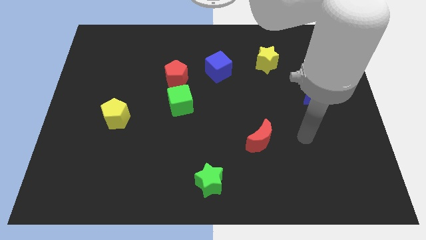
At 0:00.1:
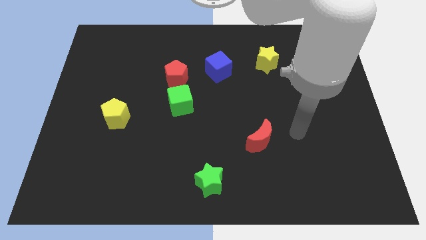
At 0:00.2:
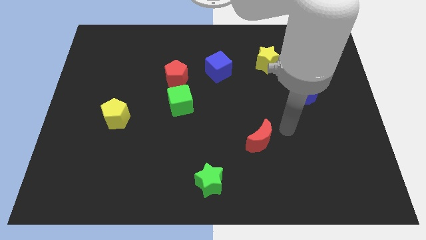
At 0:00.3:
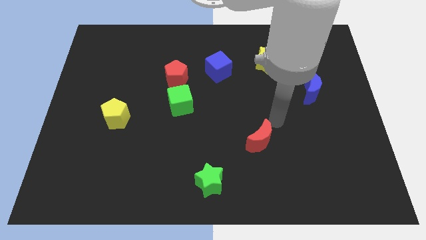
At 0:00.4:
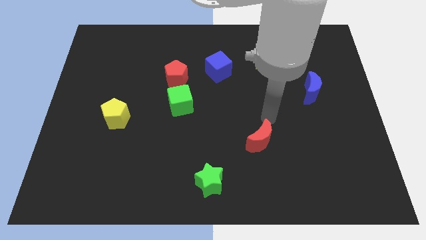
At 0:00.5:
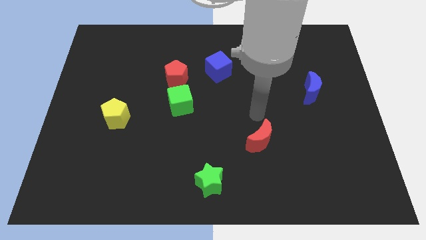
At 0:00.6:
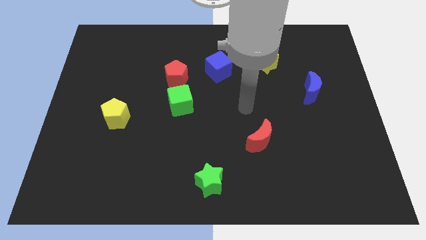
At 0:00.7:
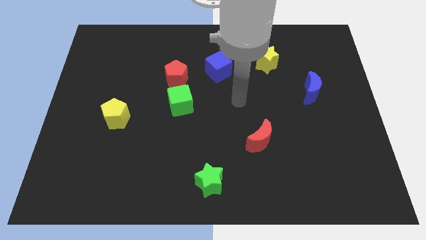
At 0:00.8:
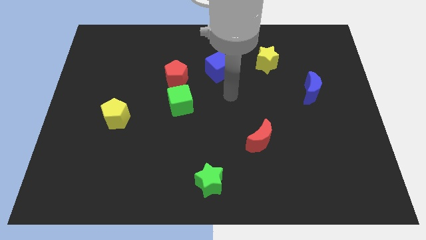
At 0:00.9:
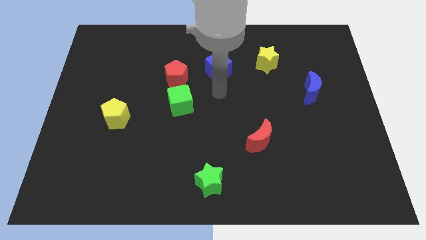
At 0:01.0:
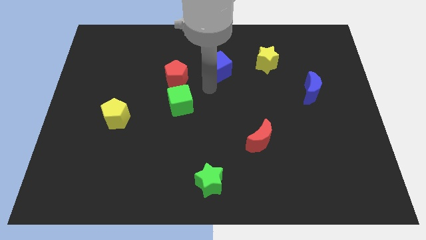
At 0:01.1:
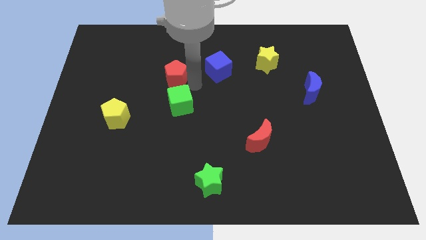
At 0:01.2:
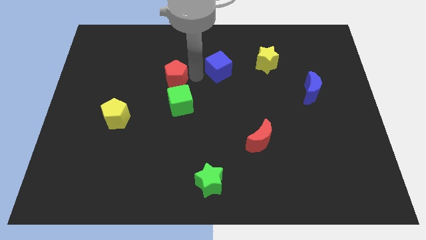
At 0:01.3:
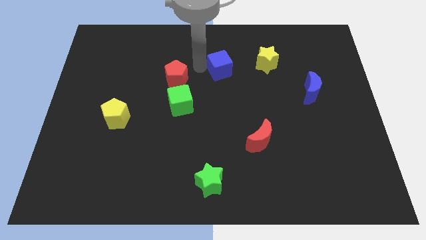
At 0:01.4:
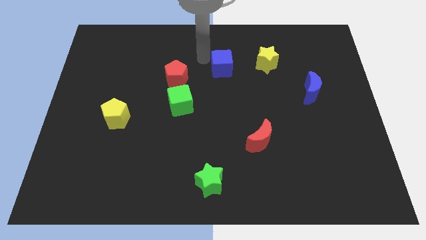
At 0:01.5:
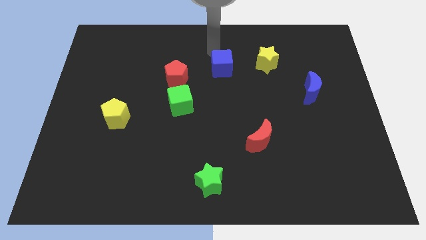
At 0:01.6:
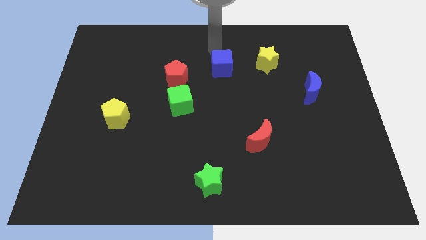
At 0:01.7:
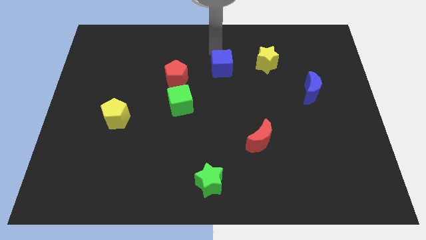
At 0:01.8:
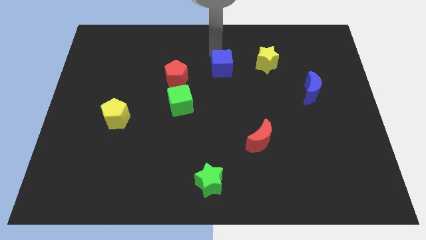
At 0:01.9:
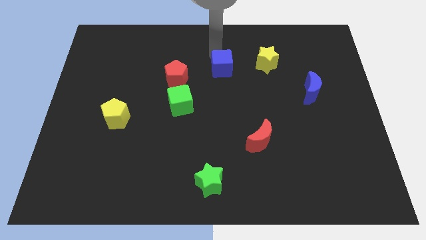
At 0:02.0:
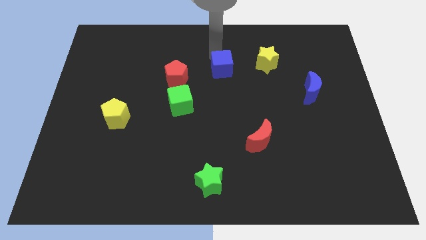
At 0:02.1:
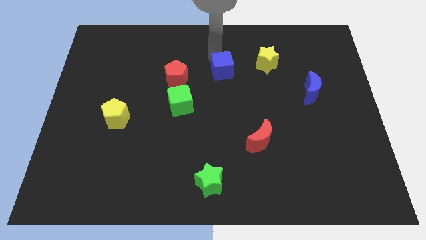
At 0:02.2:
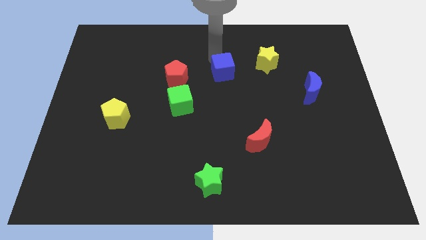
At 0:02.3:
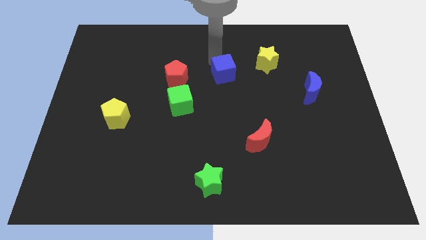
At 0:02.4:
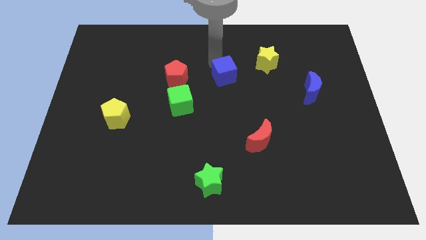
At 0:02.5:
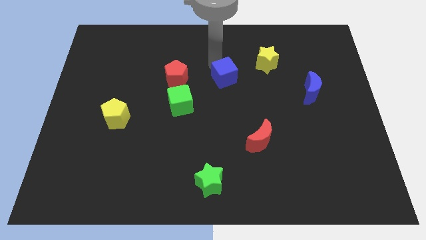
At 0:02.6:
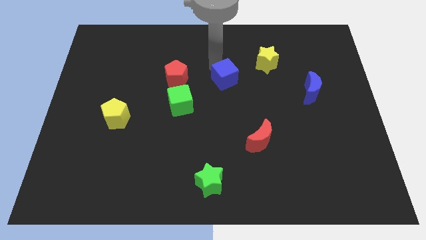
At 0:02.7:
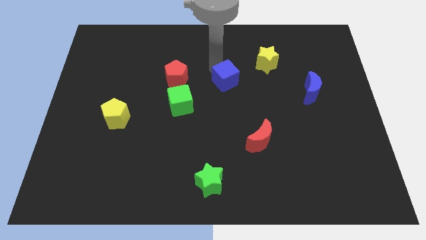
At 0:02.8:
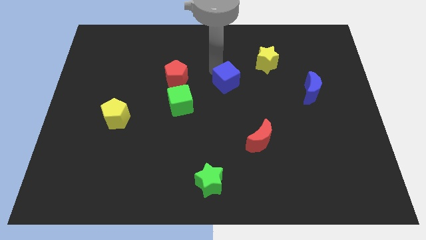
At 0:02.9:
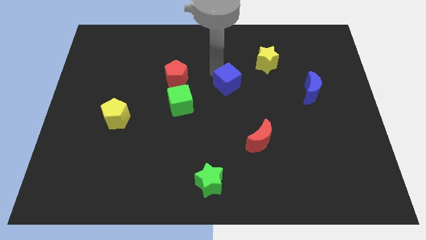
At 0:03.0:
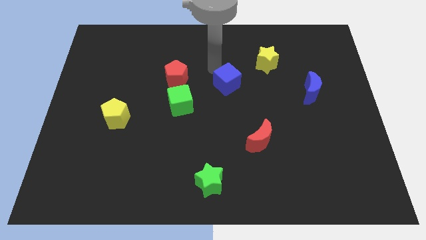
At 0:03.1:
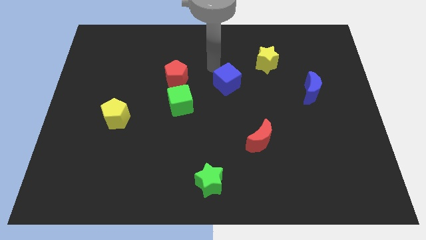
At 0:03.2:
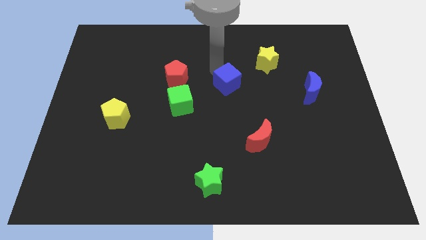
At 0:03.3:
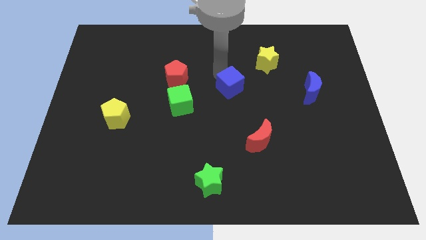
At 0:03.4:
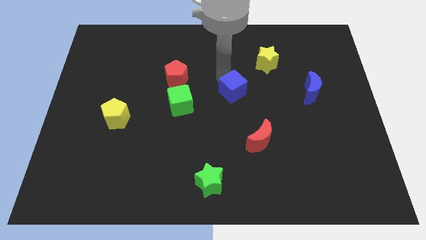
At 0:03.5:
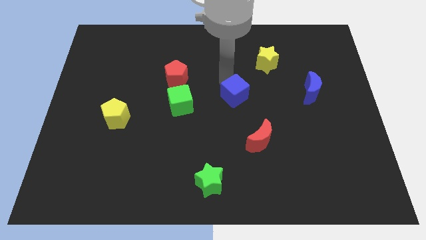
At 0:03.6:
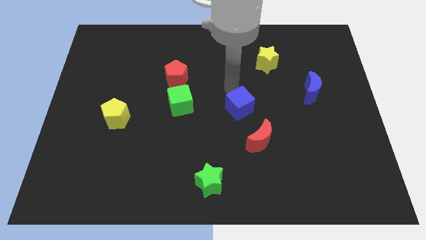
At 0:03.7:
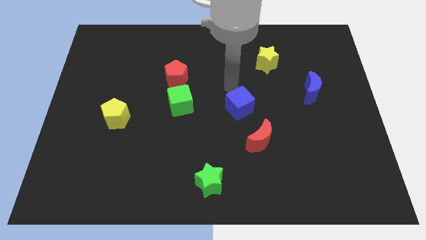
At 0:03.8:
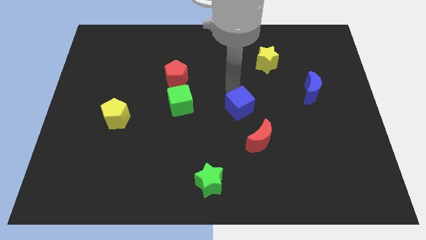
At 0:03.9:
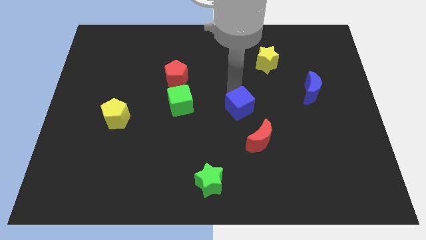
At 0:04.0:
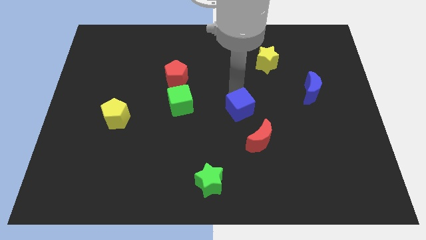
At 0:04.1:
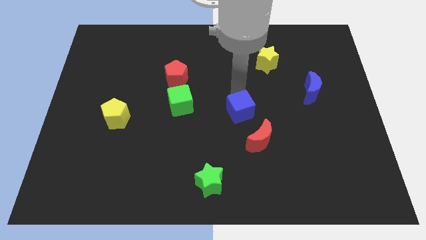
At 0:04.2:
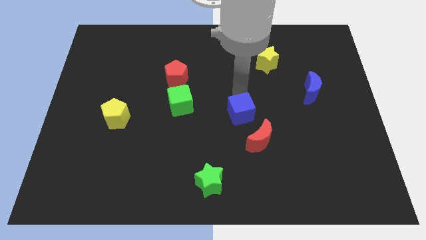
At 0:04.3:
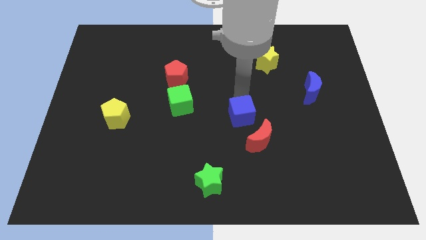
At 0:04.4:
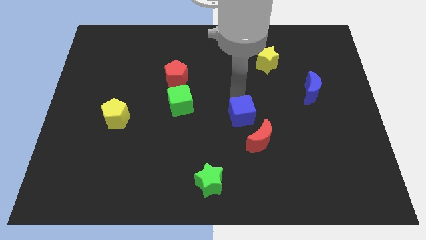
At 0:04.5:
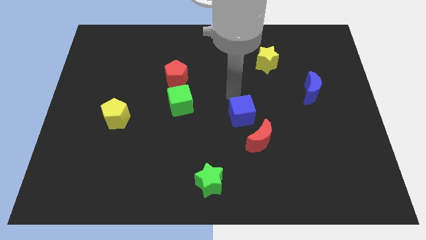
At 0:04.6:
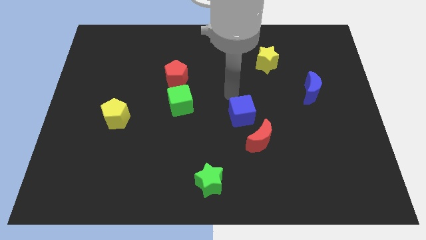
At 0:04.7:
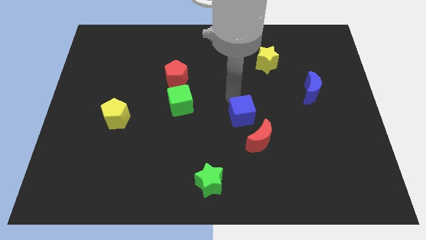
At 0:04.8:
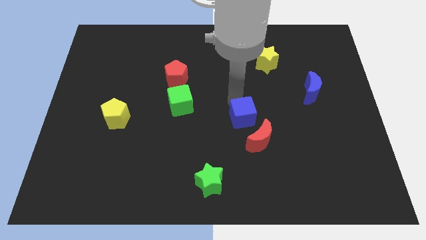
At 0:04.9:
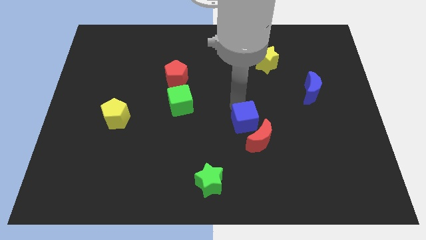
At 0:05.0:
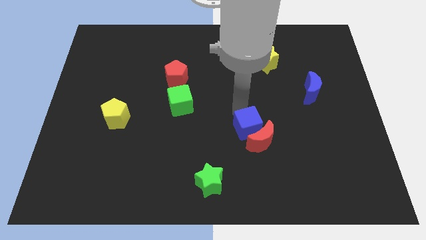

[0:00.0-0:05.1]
move the blue cube next to the red moon

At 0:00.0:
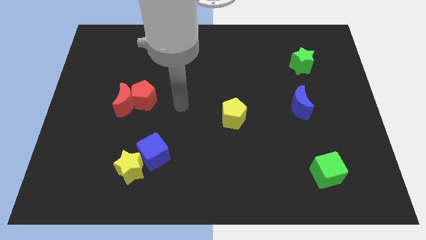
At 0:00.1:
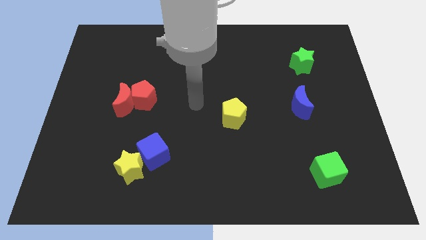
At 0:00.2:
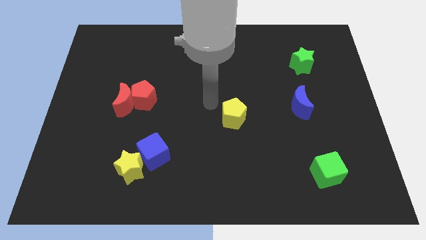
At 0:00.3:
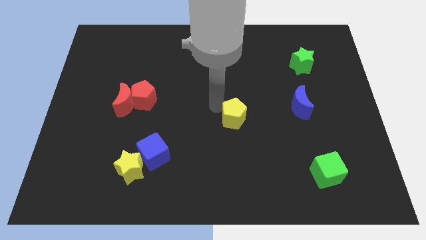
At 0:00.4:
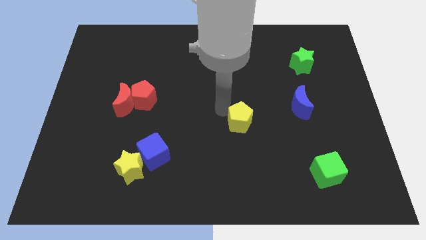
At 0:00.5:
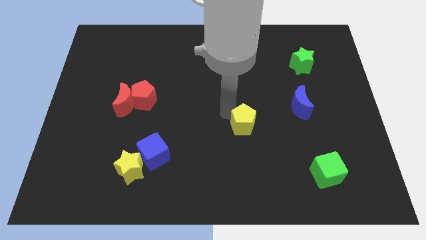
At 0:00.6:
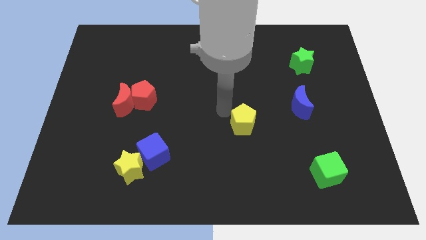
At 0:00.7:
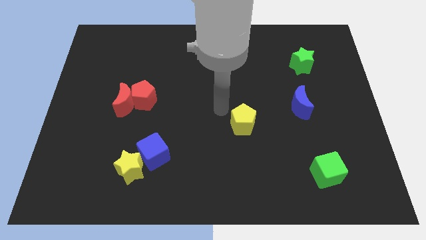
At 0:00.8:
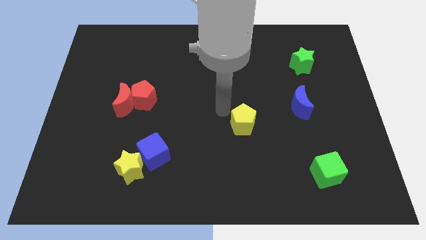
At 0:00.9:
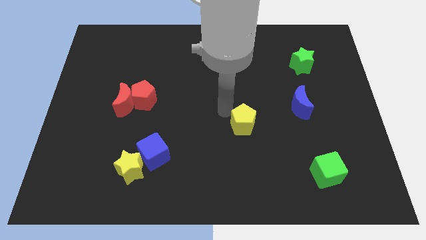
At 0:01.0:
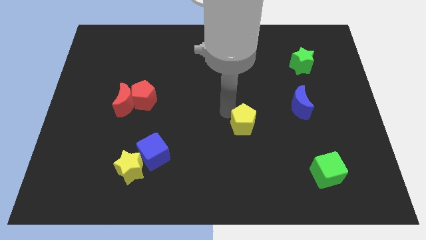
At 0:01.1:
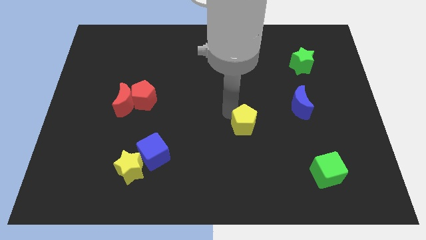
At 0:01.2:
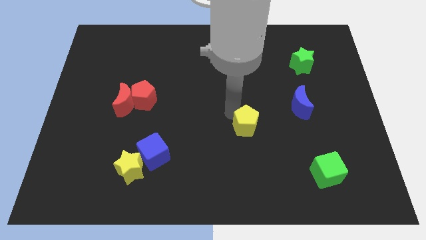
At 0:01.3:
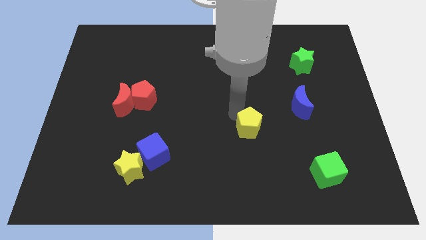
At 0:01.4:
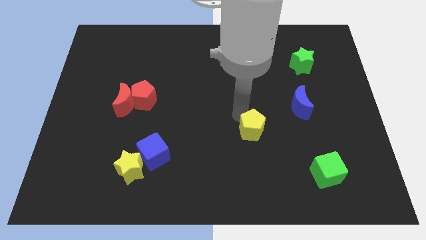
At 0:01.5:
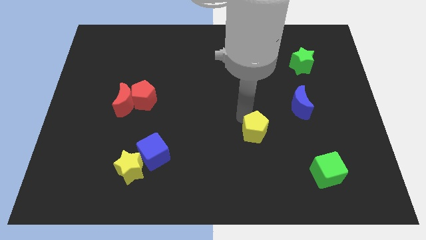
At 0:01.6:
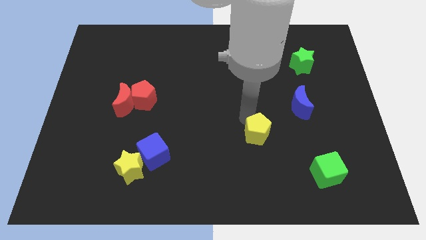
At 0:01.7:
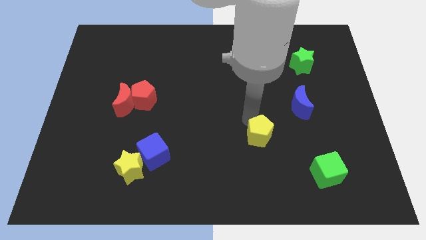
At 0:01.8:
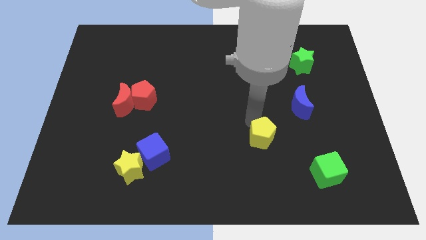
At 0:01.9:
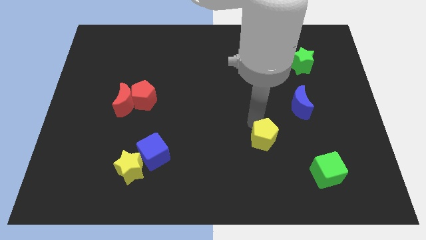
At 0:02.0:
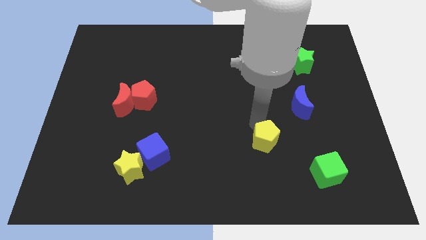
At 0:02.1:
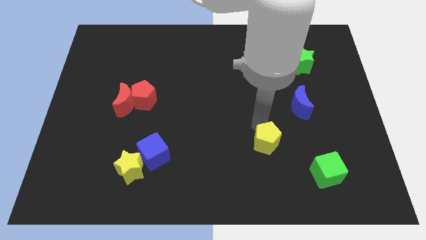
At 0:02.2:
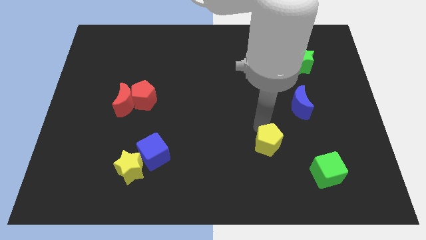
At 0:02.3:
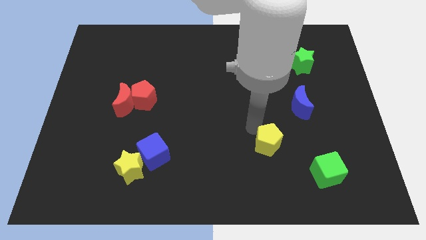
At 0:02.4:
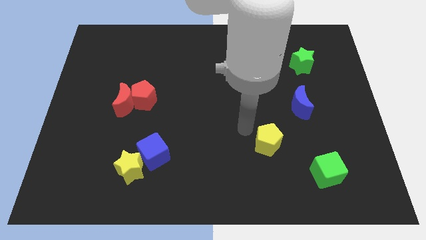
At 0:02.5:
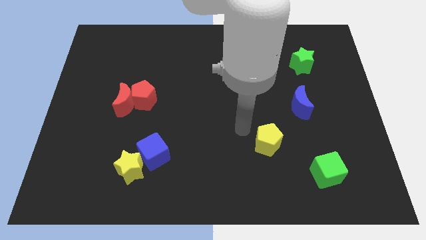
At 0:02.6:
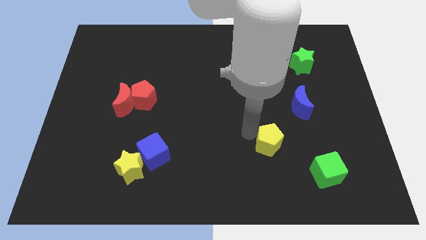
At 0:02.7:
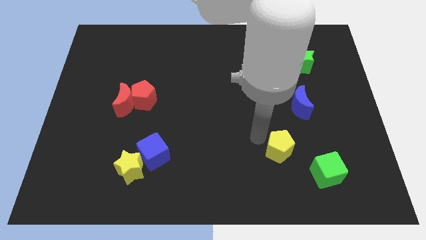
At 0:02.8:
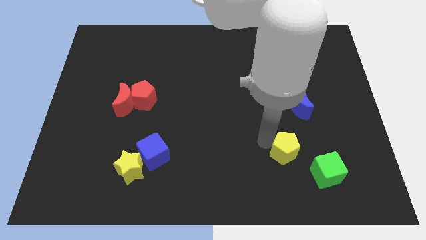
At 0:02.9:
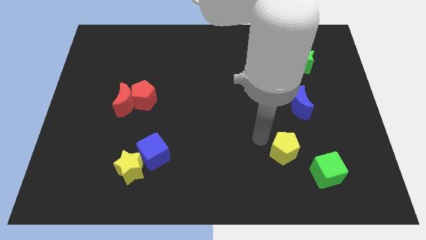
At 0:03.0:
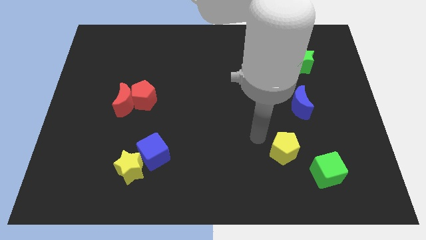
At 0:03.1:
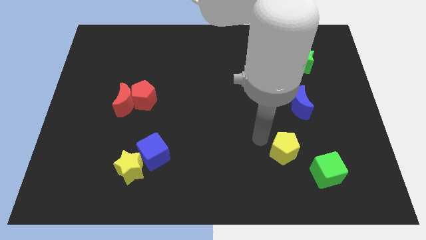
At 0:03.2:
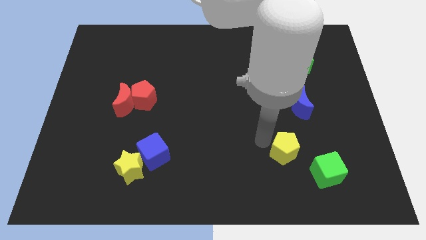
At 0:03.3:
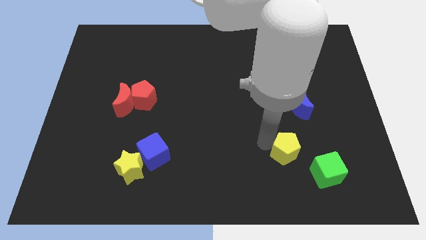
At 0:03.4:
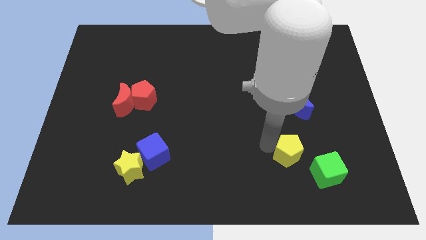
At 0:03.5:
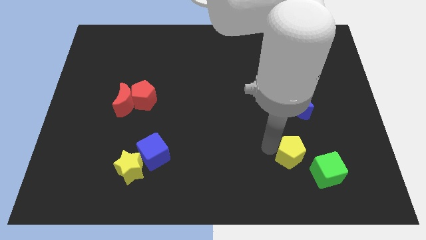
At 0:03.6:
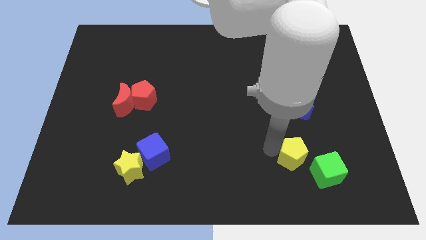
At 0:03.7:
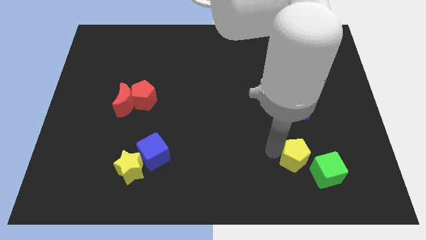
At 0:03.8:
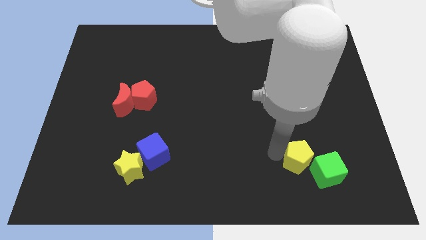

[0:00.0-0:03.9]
move the yellow pentagon next to the green cube
